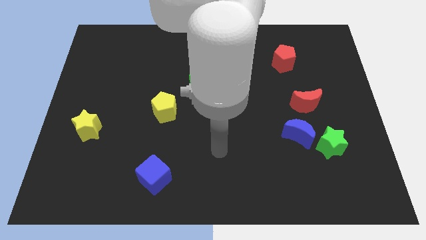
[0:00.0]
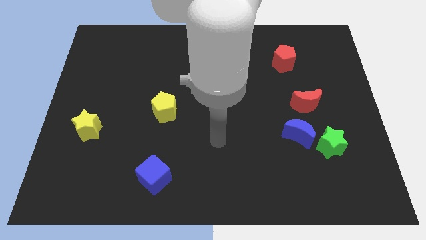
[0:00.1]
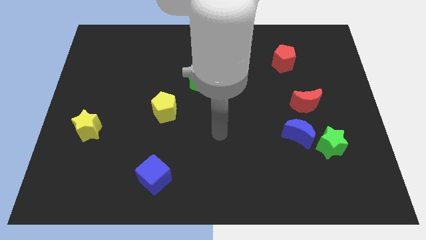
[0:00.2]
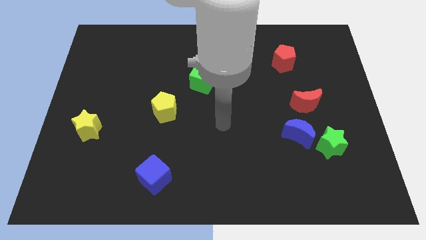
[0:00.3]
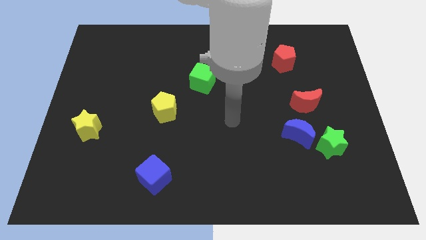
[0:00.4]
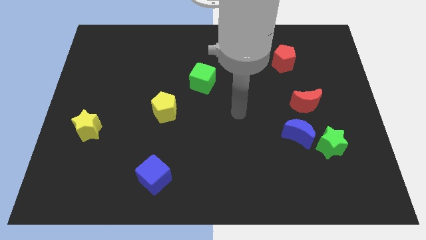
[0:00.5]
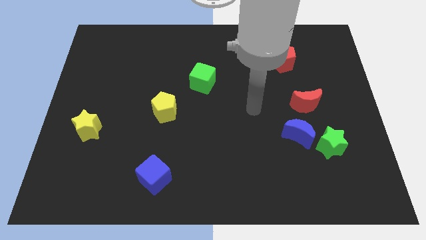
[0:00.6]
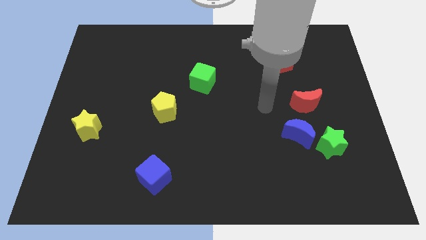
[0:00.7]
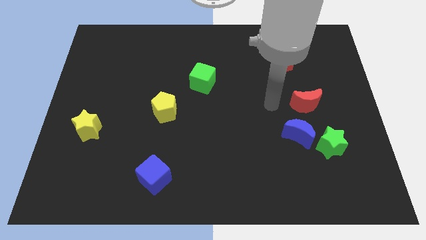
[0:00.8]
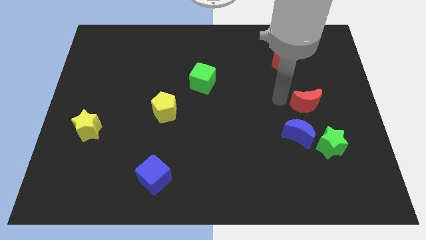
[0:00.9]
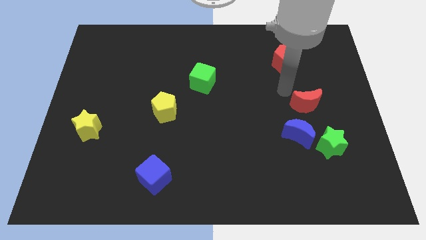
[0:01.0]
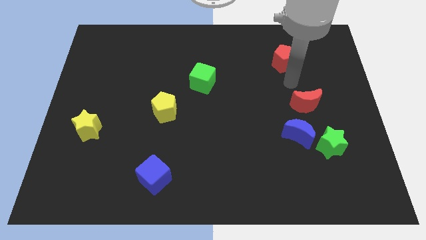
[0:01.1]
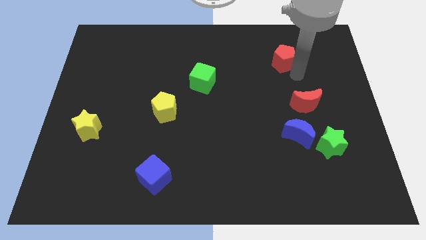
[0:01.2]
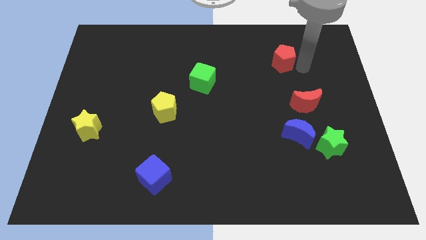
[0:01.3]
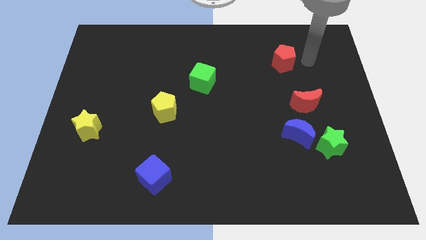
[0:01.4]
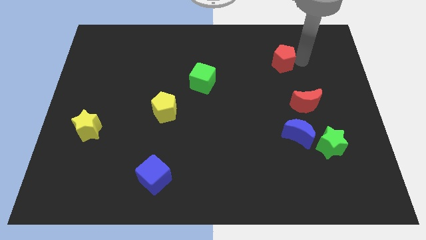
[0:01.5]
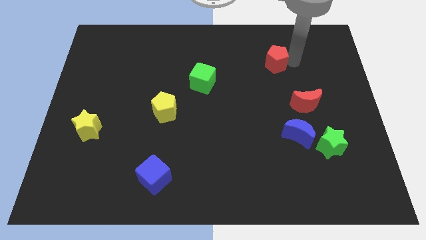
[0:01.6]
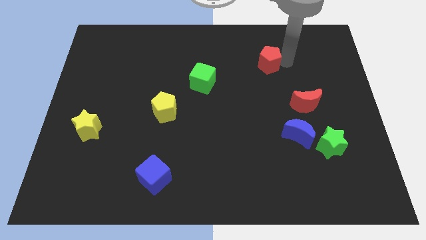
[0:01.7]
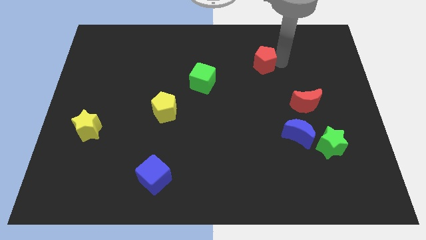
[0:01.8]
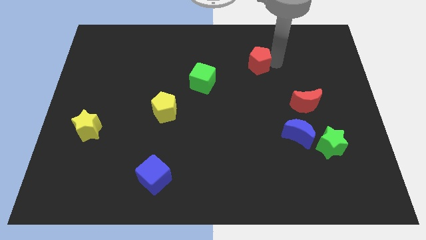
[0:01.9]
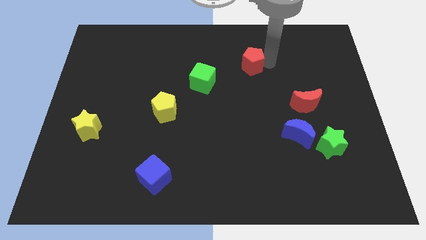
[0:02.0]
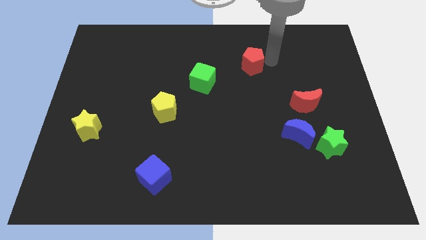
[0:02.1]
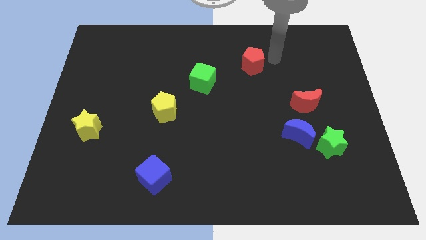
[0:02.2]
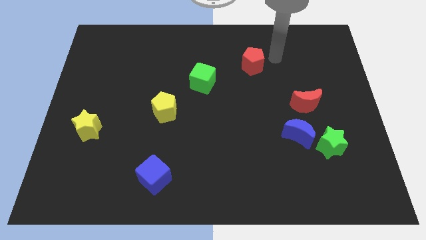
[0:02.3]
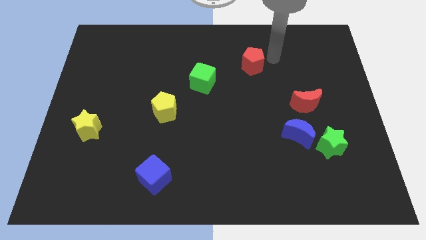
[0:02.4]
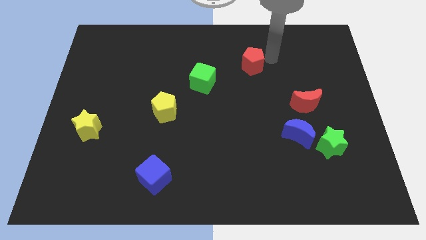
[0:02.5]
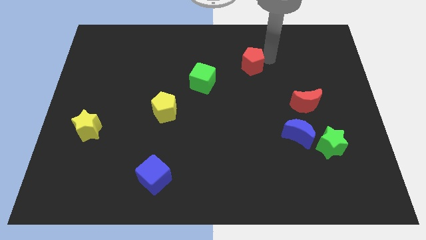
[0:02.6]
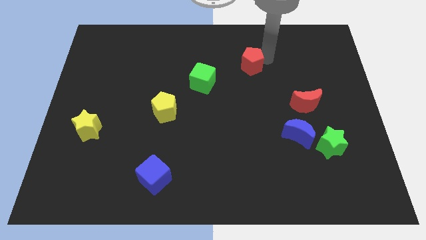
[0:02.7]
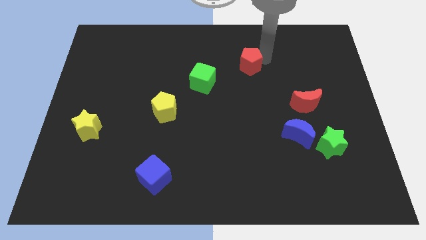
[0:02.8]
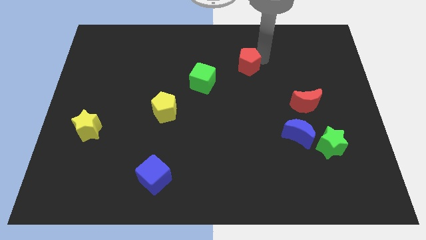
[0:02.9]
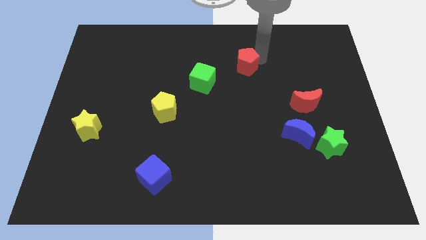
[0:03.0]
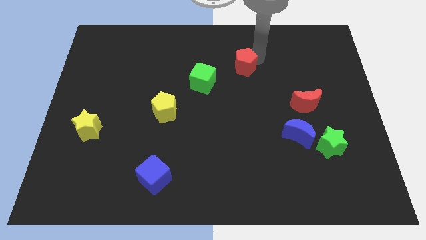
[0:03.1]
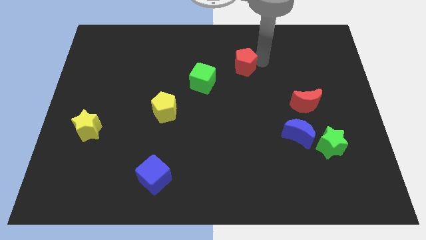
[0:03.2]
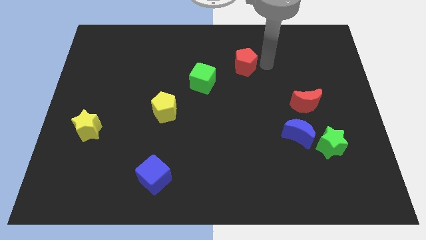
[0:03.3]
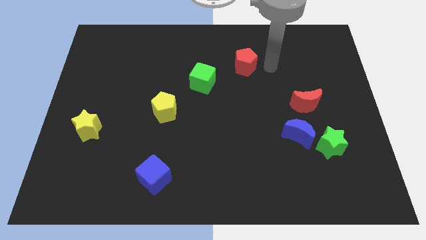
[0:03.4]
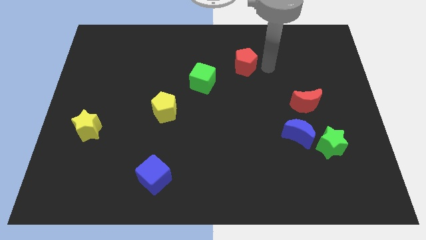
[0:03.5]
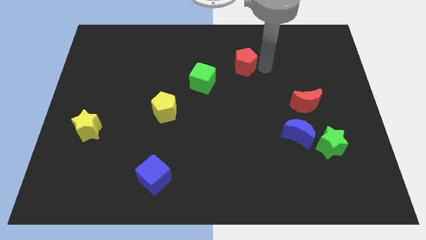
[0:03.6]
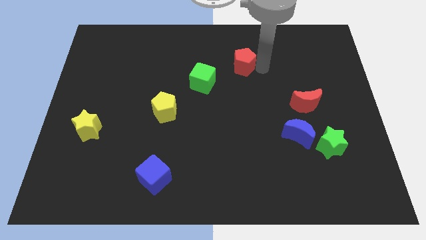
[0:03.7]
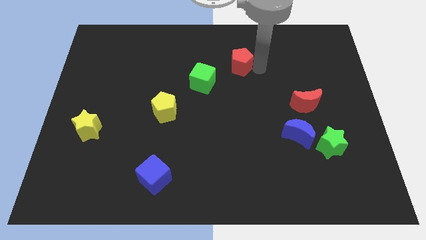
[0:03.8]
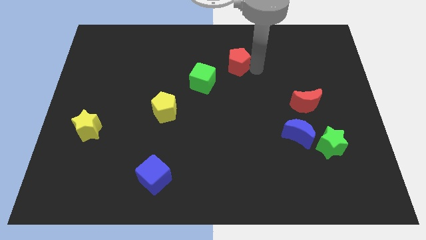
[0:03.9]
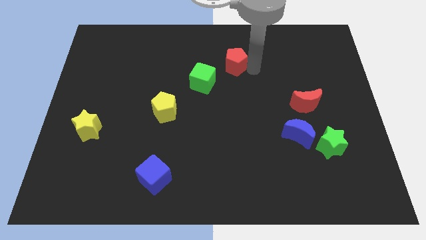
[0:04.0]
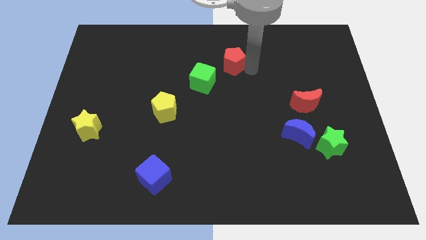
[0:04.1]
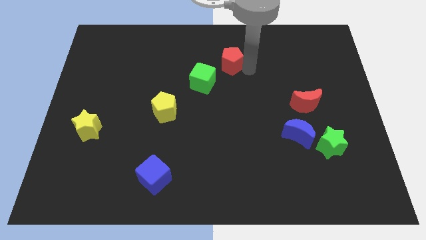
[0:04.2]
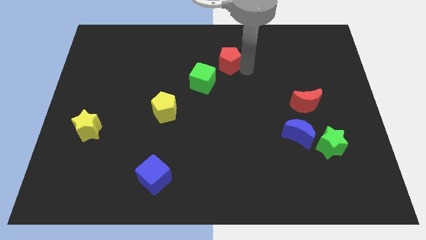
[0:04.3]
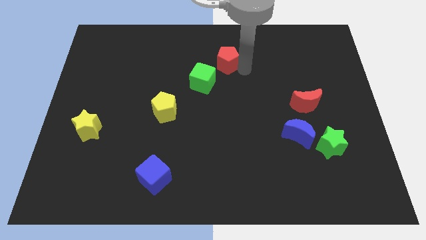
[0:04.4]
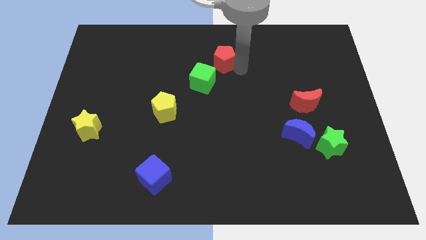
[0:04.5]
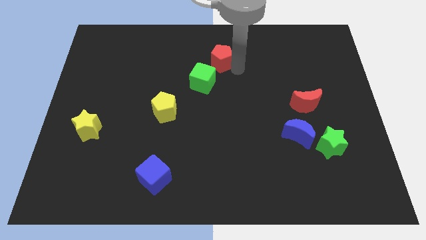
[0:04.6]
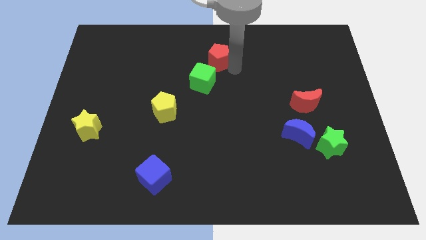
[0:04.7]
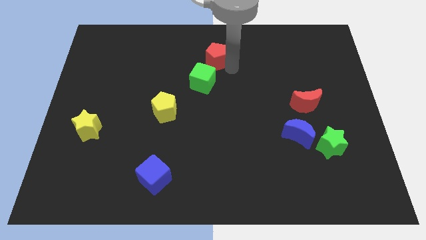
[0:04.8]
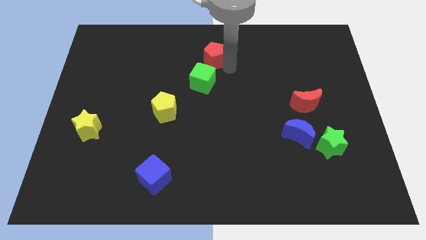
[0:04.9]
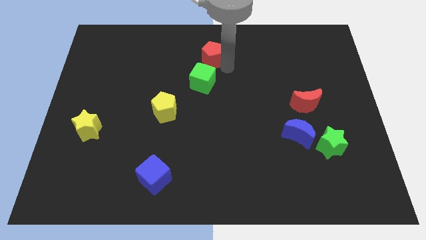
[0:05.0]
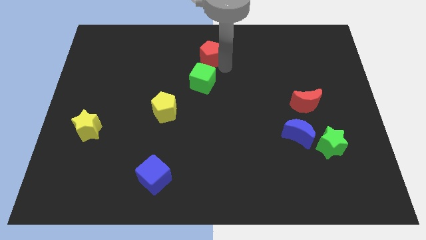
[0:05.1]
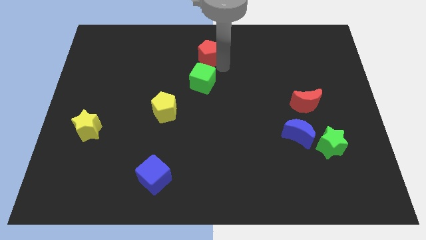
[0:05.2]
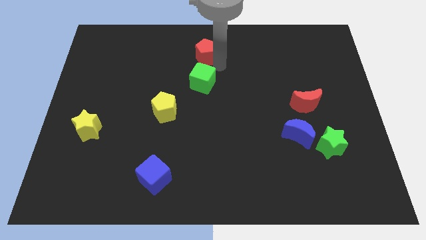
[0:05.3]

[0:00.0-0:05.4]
move the red pentagon to the left

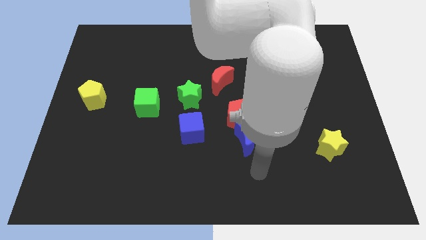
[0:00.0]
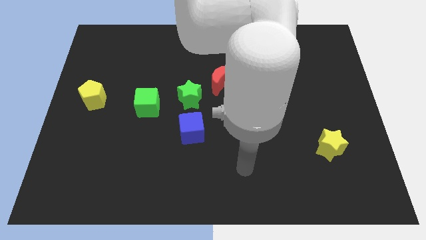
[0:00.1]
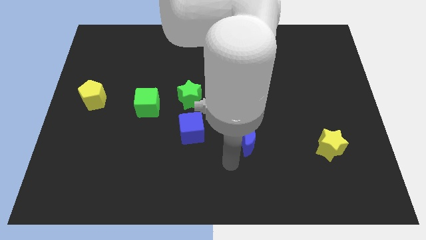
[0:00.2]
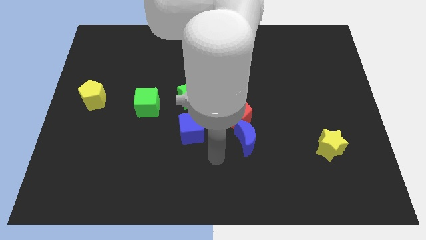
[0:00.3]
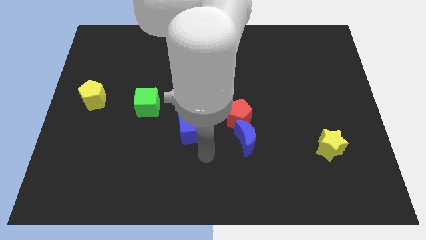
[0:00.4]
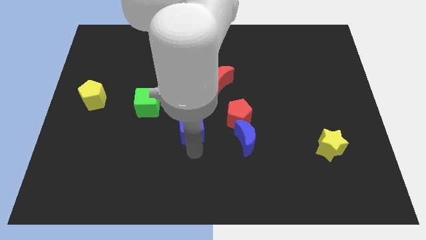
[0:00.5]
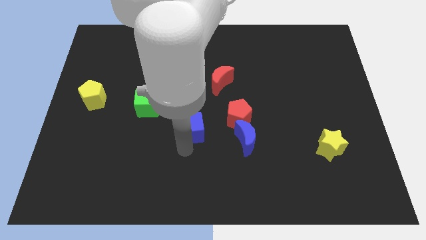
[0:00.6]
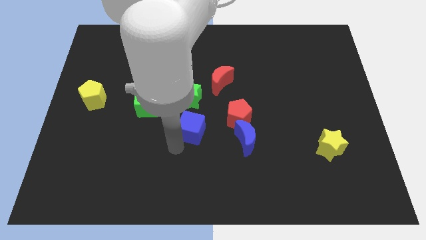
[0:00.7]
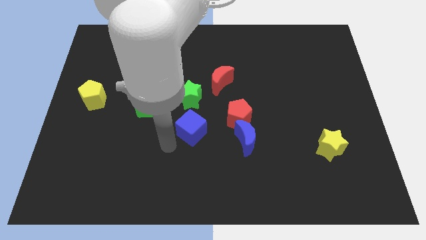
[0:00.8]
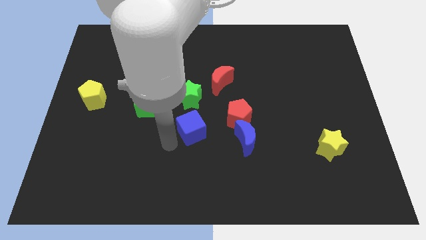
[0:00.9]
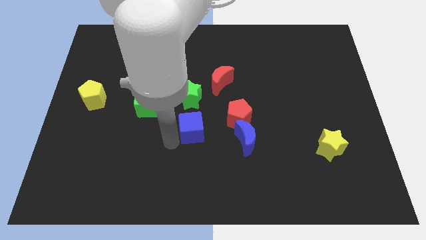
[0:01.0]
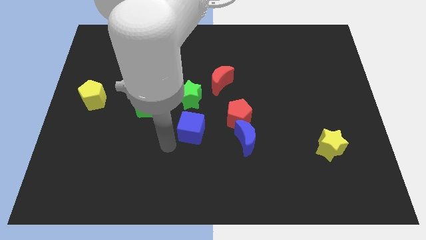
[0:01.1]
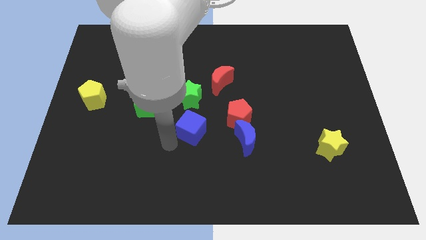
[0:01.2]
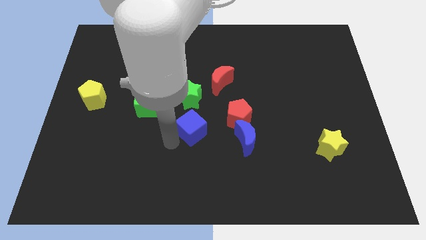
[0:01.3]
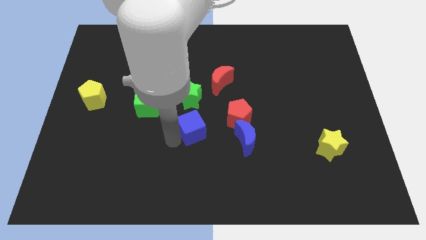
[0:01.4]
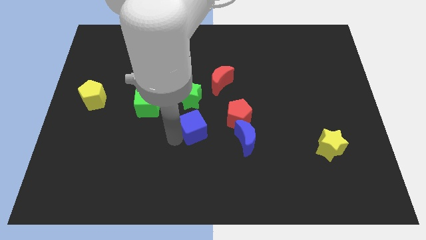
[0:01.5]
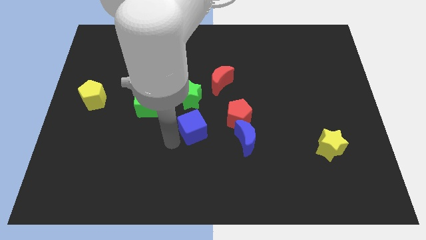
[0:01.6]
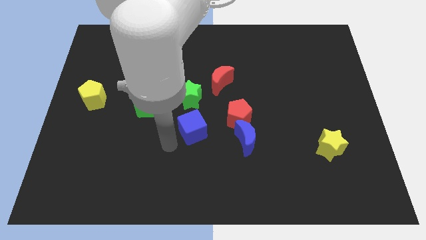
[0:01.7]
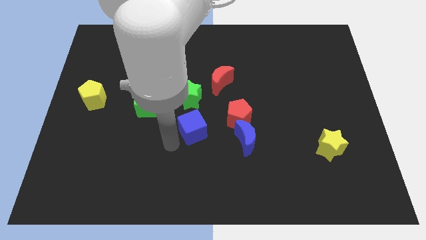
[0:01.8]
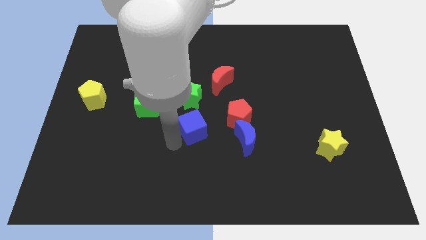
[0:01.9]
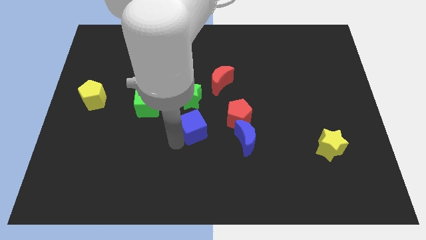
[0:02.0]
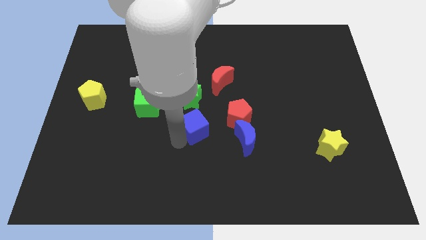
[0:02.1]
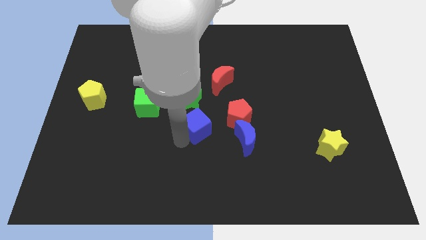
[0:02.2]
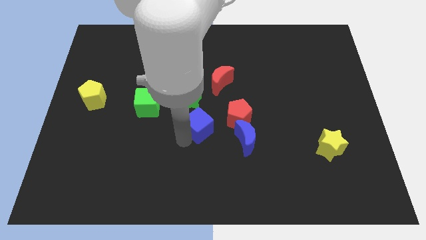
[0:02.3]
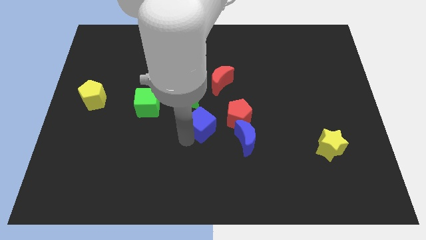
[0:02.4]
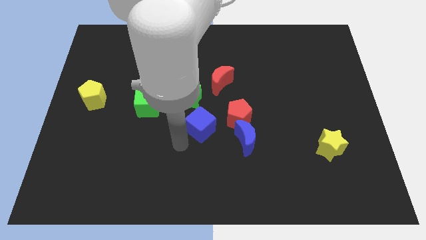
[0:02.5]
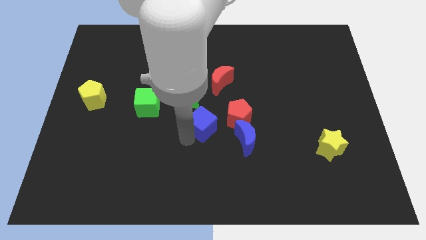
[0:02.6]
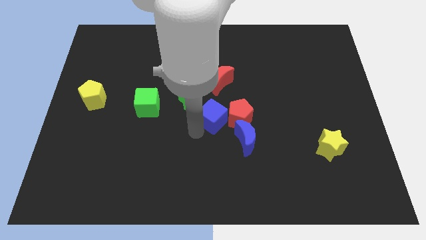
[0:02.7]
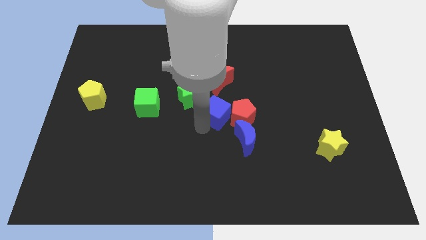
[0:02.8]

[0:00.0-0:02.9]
slightly move the blue cube upwards and then right
